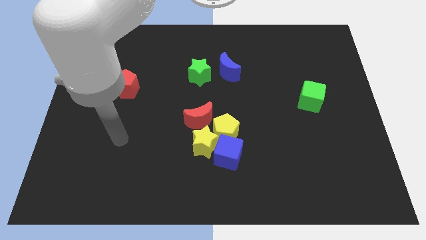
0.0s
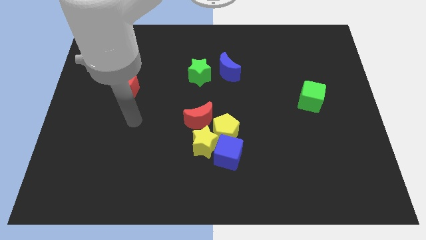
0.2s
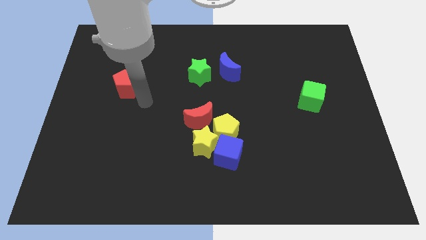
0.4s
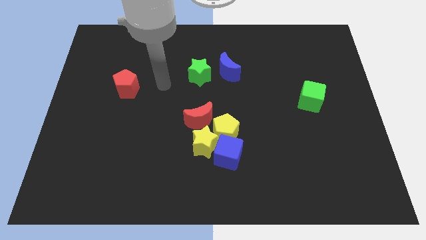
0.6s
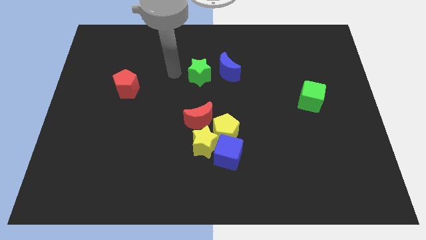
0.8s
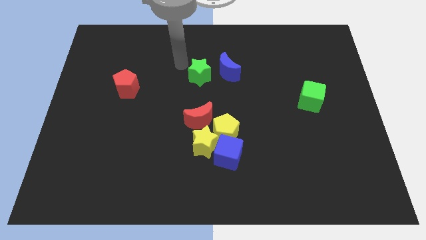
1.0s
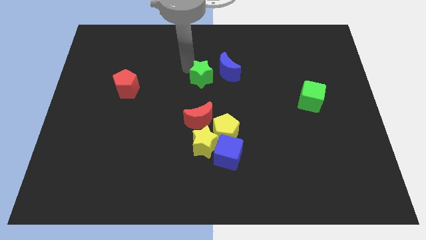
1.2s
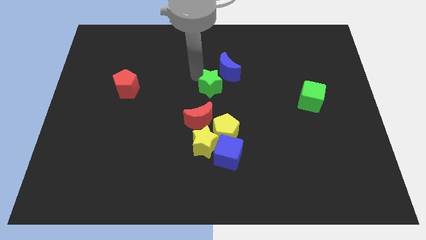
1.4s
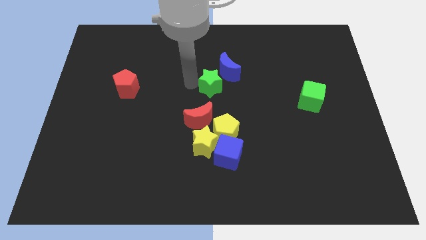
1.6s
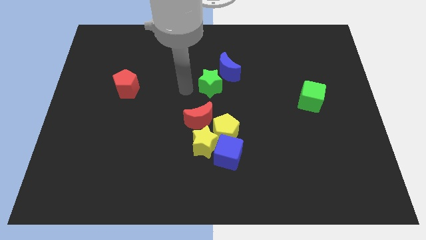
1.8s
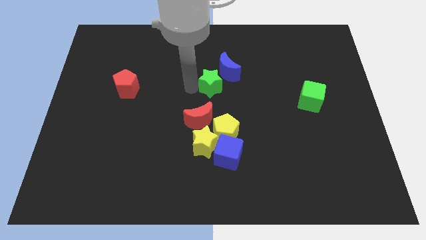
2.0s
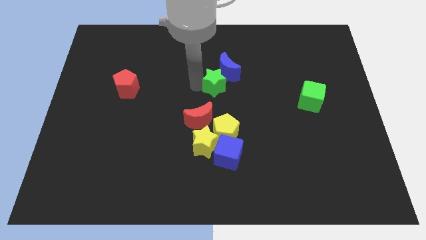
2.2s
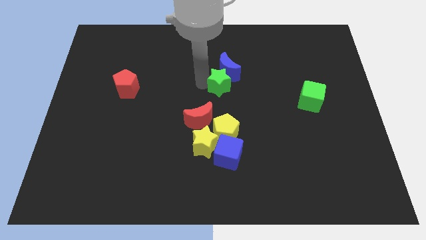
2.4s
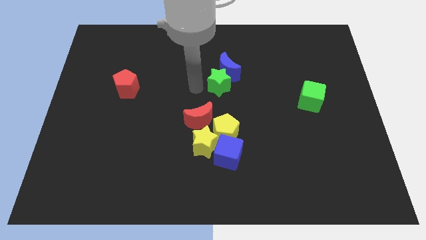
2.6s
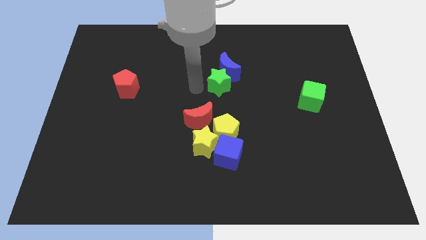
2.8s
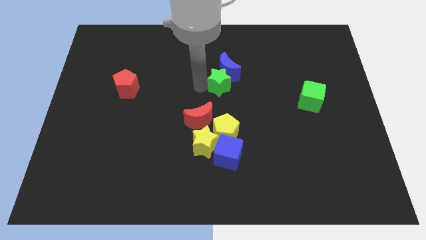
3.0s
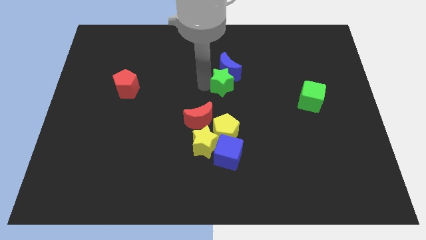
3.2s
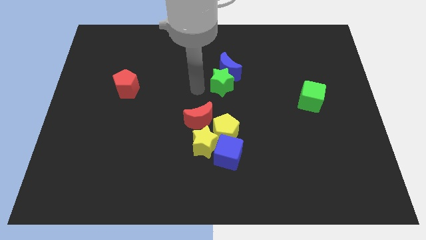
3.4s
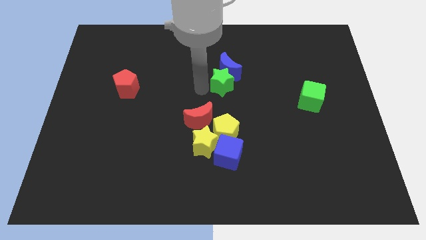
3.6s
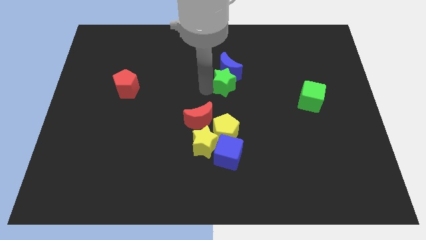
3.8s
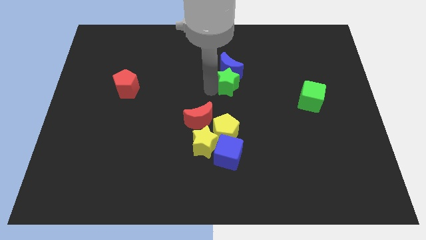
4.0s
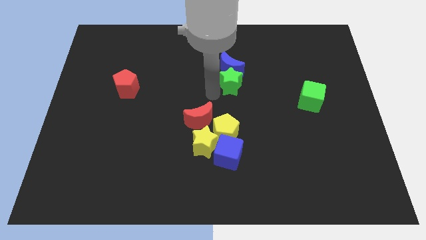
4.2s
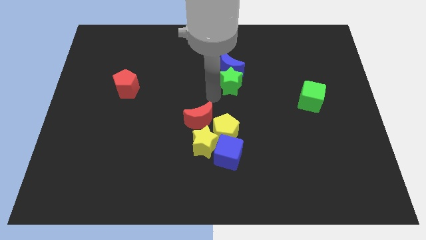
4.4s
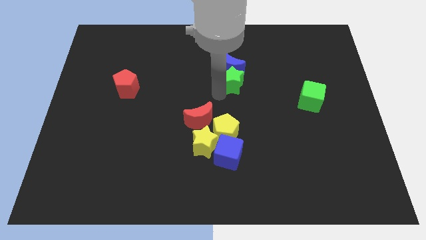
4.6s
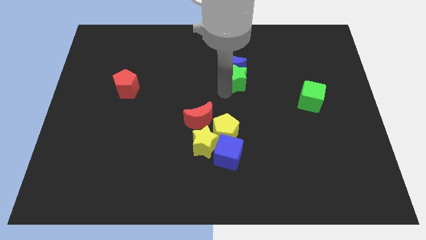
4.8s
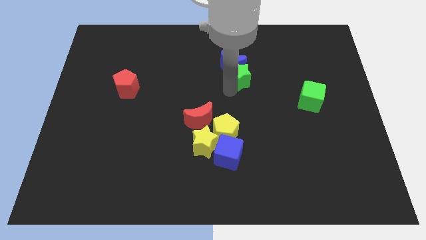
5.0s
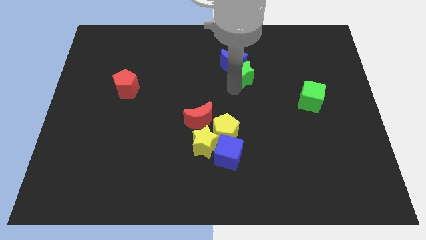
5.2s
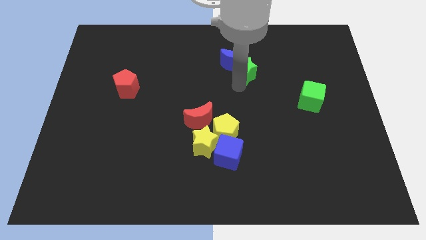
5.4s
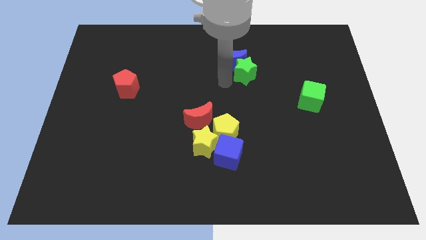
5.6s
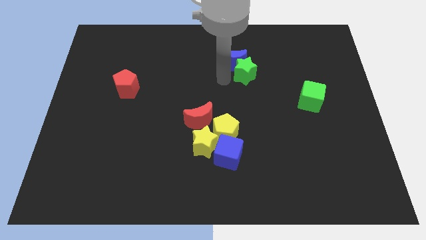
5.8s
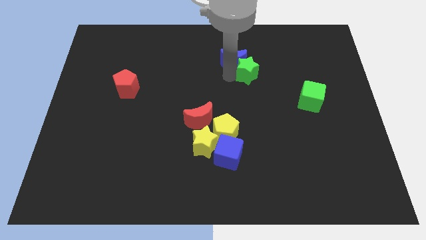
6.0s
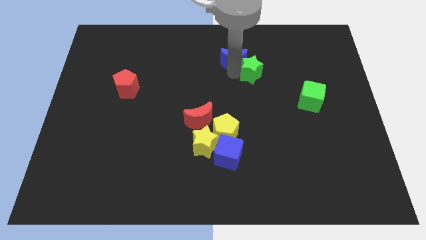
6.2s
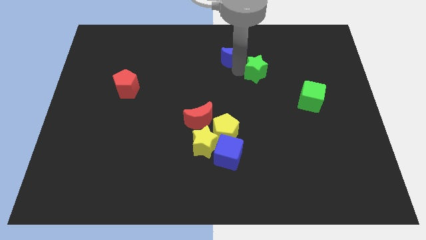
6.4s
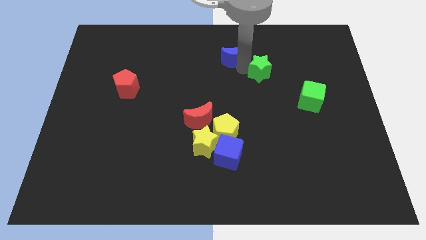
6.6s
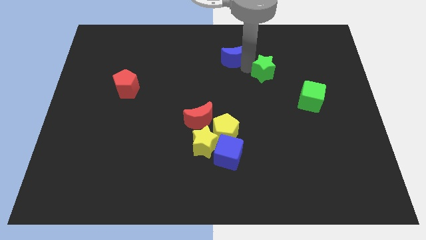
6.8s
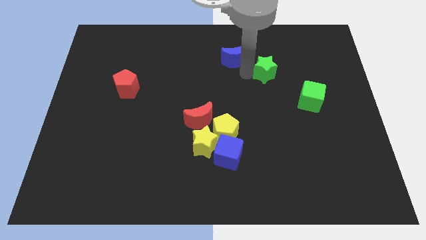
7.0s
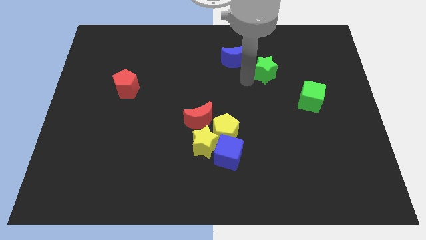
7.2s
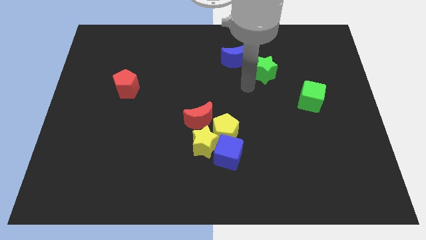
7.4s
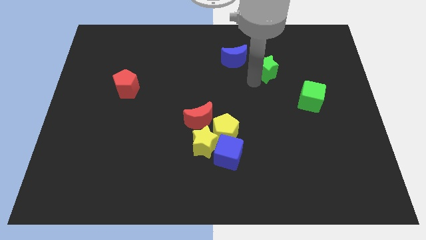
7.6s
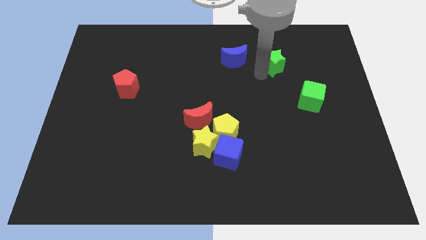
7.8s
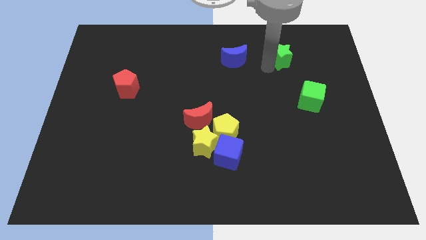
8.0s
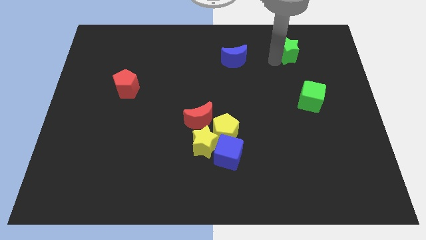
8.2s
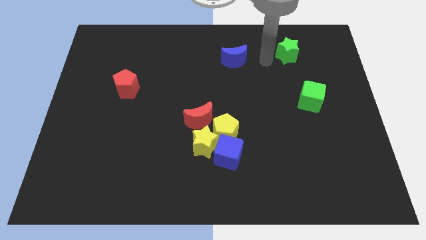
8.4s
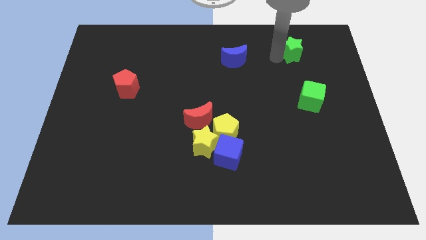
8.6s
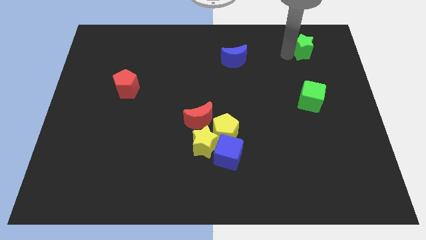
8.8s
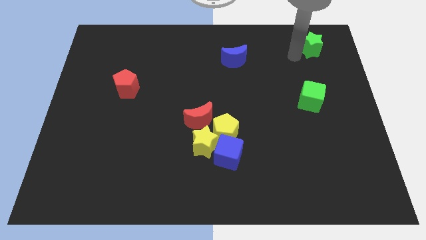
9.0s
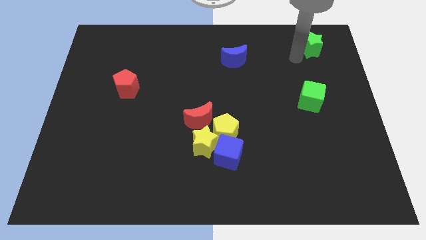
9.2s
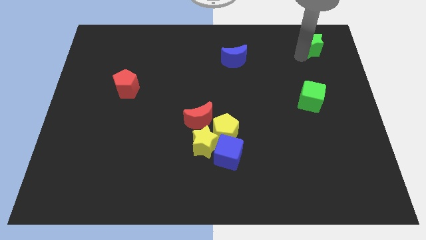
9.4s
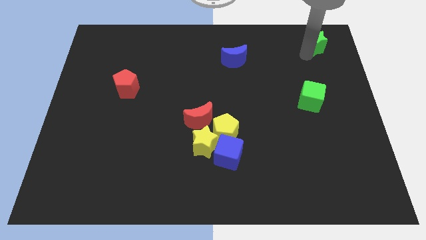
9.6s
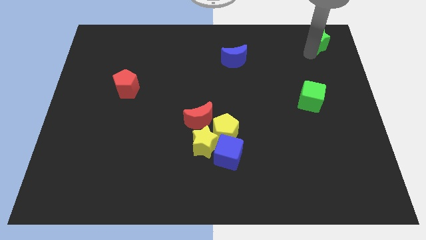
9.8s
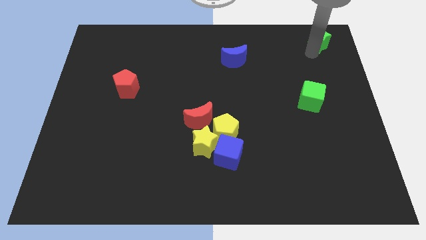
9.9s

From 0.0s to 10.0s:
slide the green star to the top right of the board

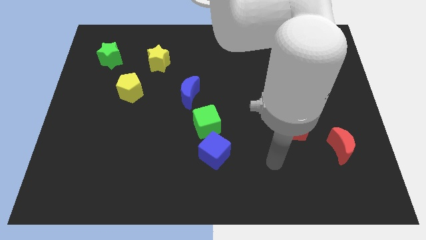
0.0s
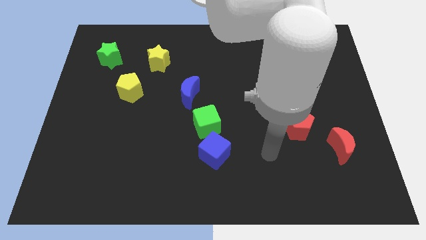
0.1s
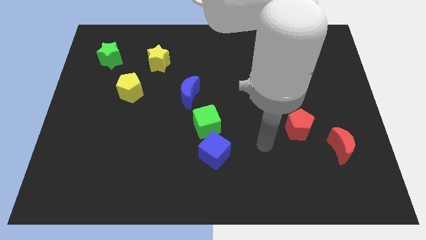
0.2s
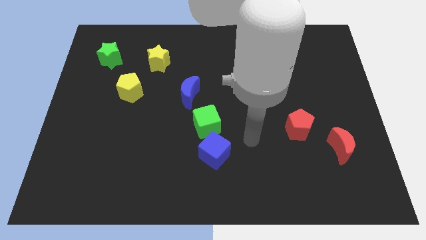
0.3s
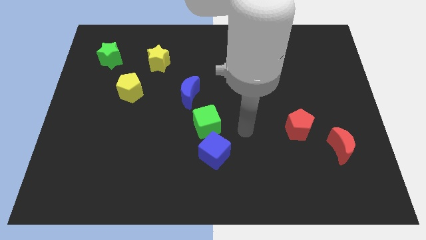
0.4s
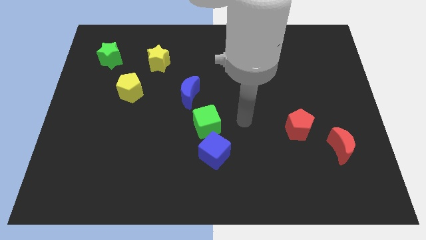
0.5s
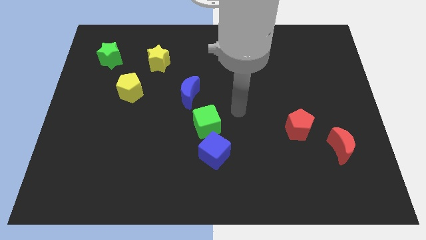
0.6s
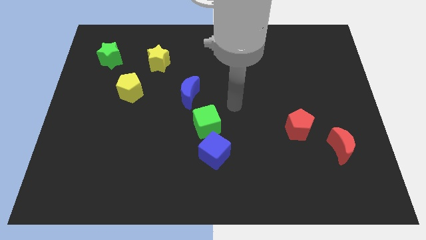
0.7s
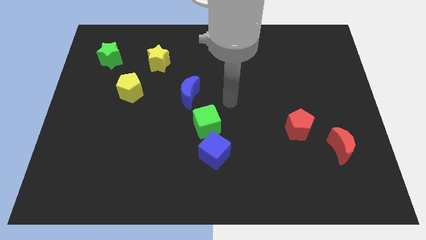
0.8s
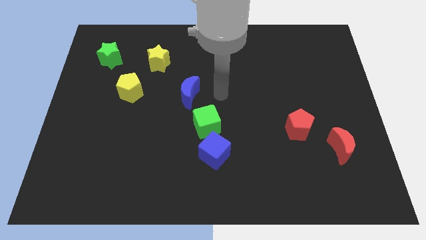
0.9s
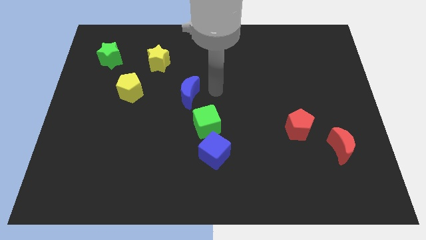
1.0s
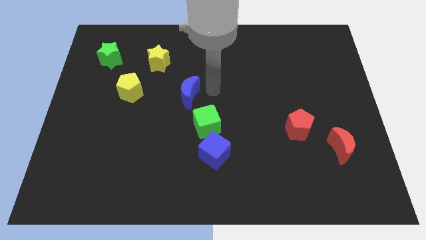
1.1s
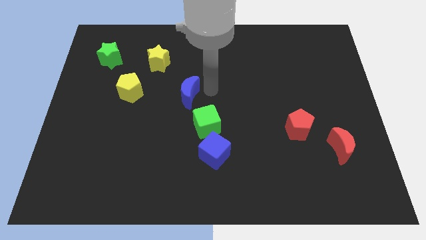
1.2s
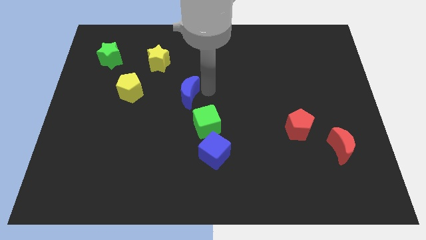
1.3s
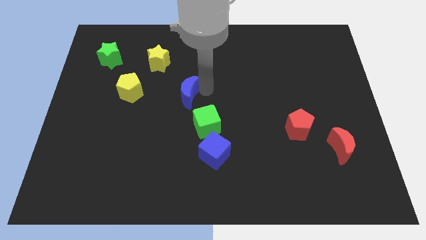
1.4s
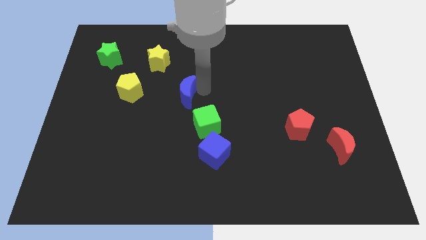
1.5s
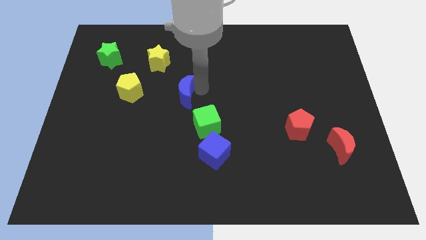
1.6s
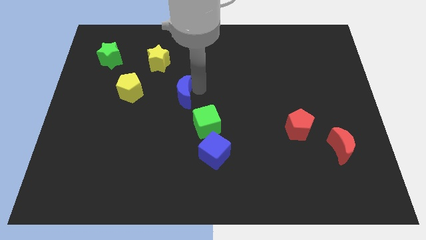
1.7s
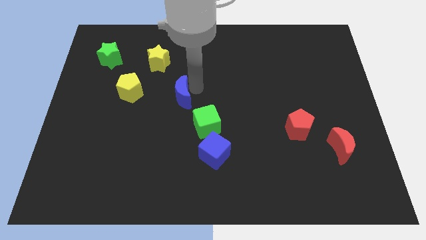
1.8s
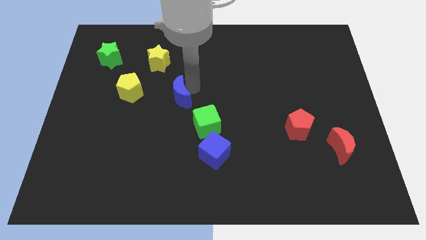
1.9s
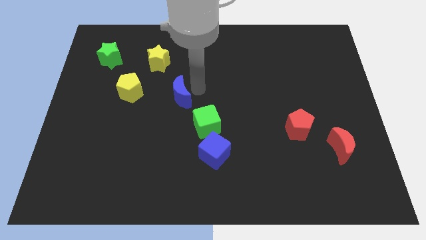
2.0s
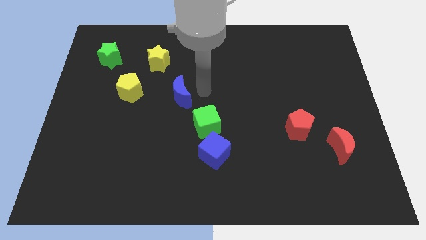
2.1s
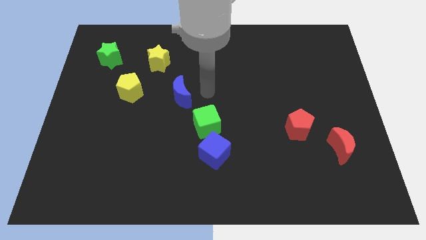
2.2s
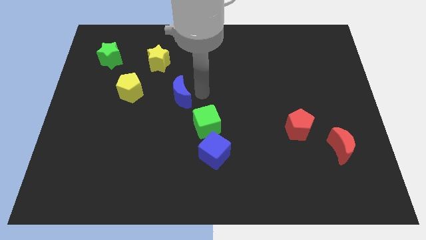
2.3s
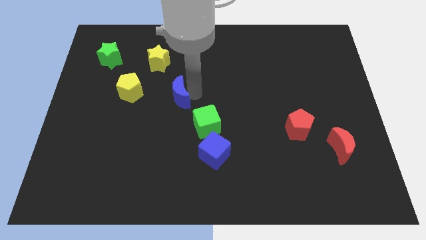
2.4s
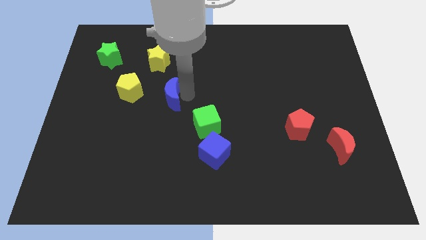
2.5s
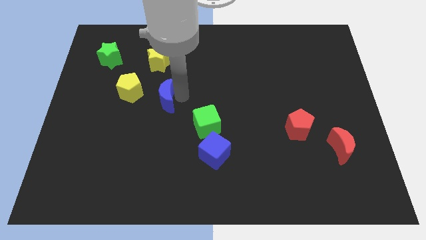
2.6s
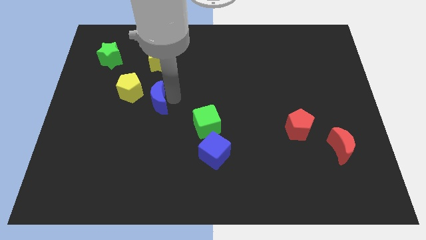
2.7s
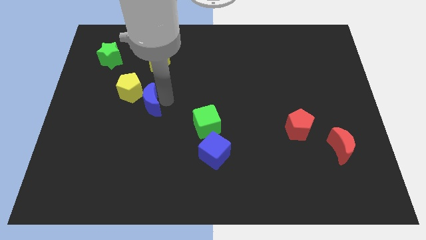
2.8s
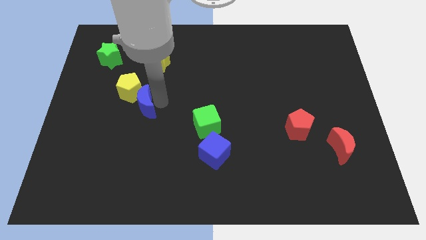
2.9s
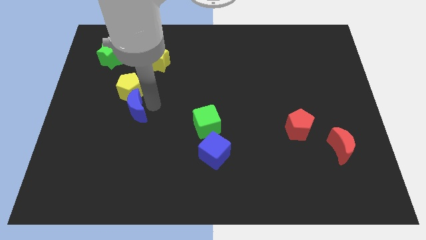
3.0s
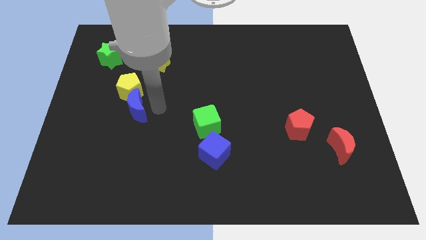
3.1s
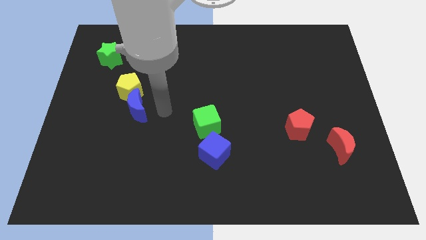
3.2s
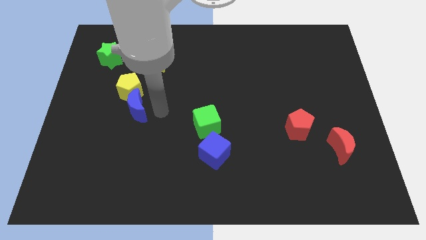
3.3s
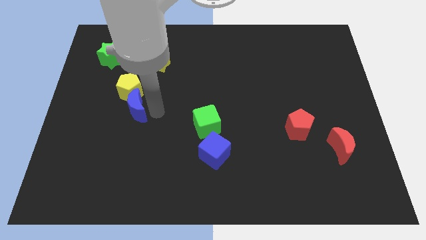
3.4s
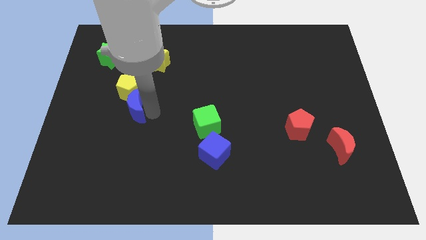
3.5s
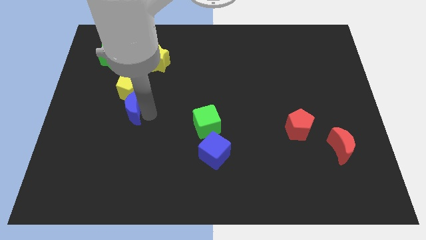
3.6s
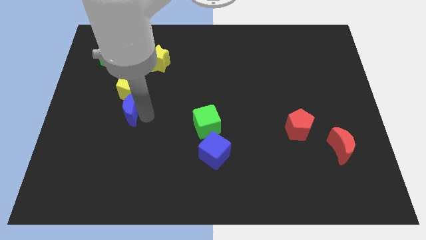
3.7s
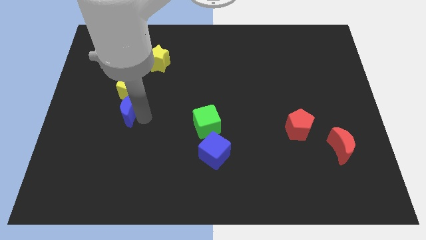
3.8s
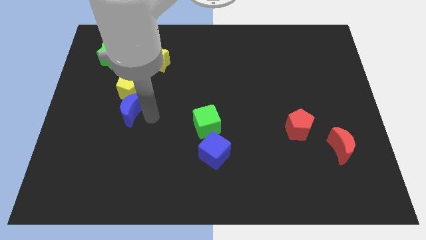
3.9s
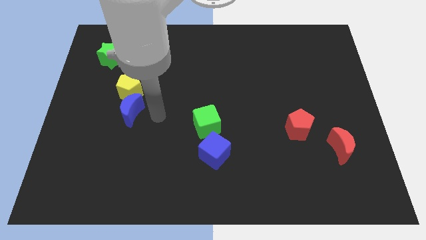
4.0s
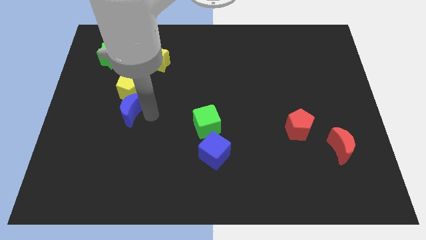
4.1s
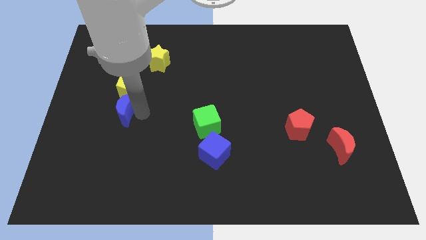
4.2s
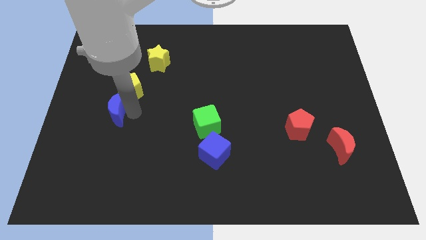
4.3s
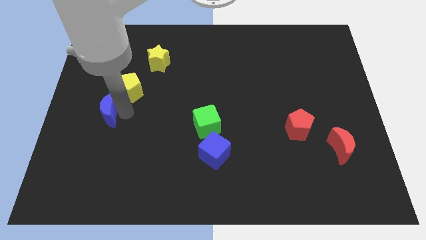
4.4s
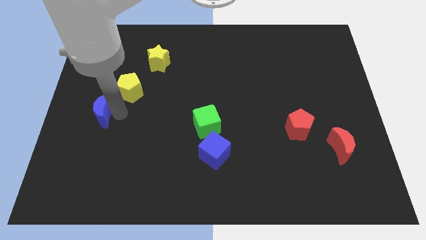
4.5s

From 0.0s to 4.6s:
put the blue moon to the left side
